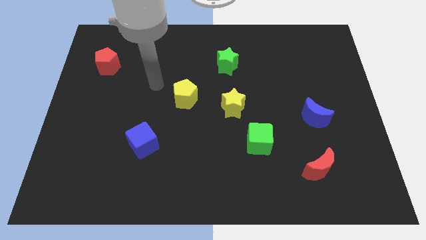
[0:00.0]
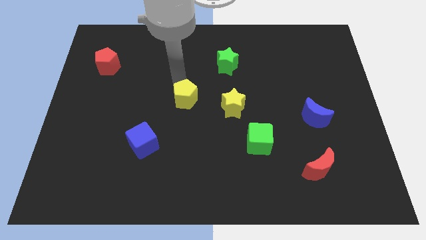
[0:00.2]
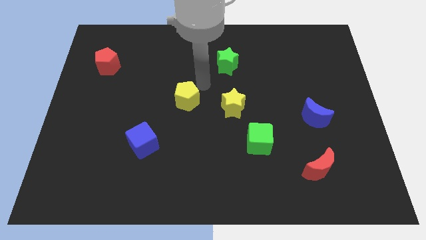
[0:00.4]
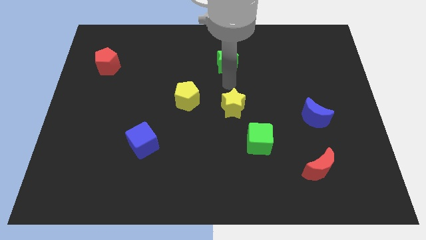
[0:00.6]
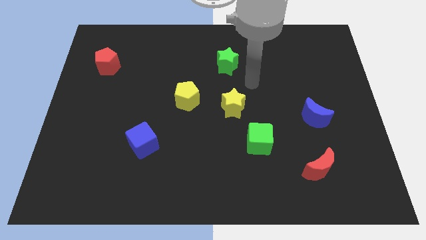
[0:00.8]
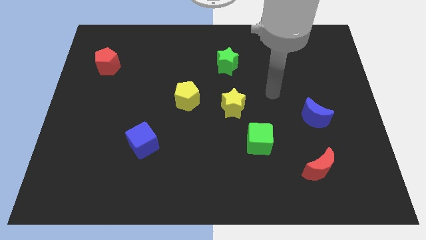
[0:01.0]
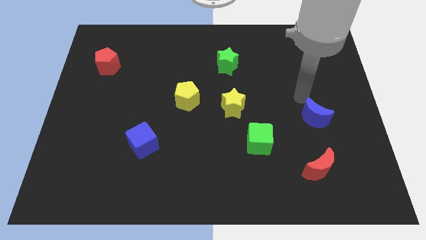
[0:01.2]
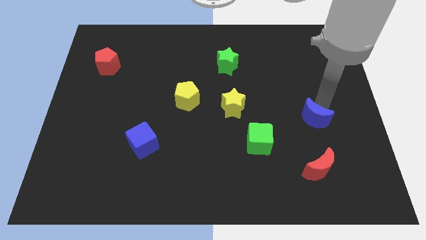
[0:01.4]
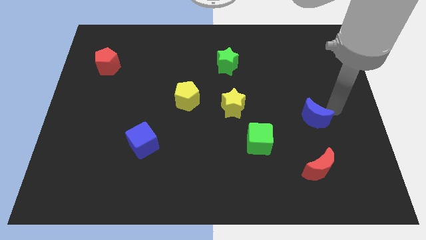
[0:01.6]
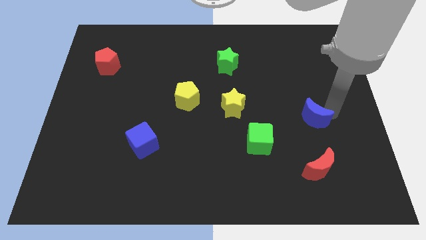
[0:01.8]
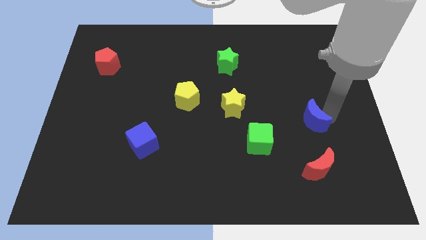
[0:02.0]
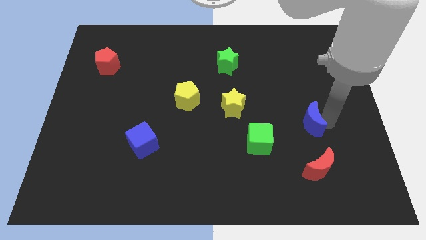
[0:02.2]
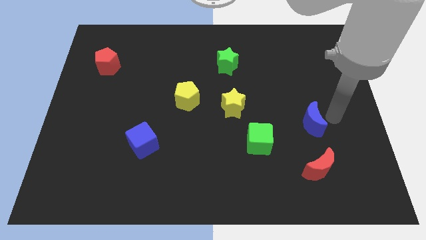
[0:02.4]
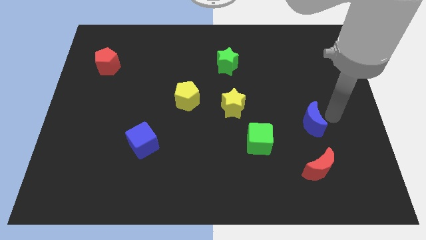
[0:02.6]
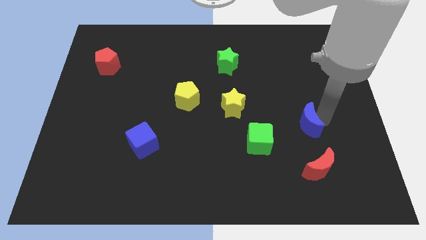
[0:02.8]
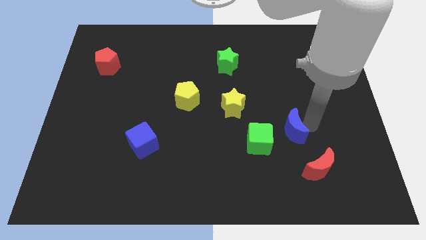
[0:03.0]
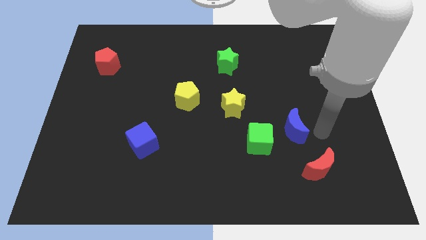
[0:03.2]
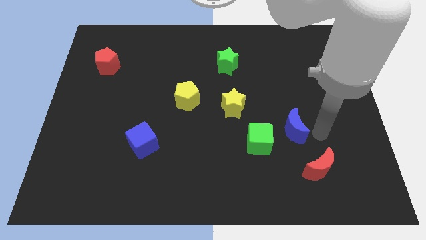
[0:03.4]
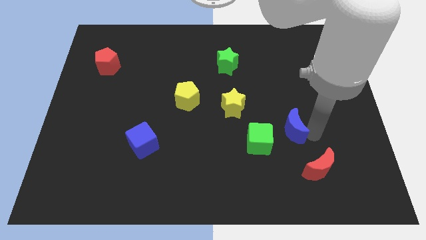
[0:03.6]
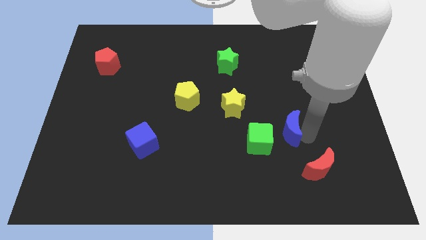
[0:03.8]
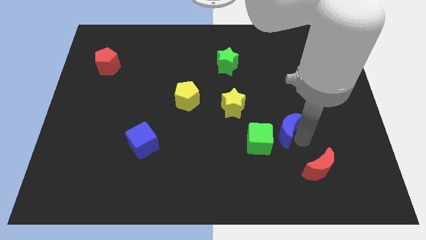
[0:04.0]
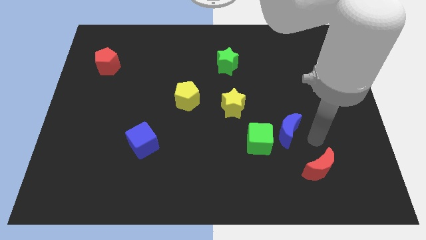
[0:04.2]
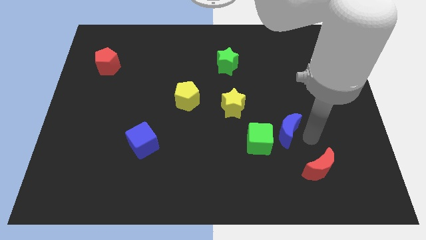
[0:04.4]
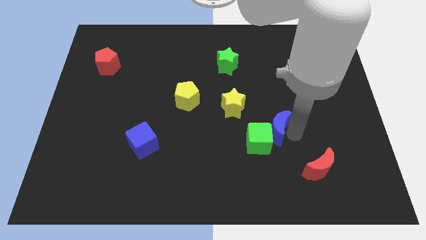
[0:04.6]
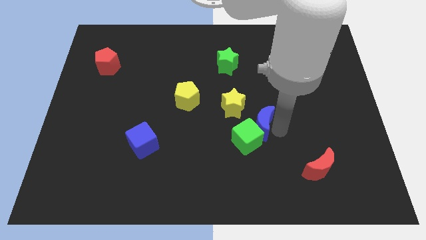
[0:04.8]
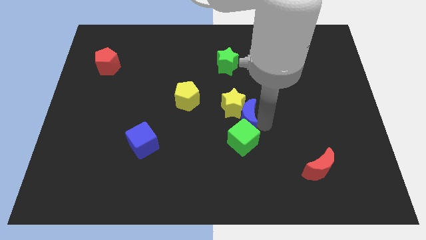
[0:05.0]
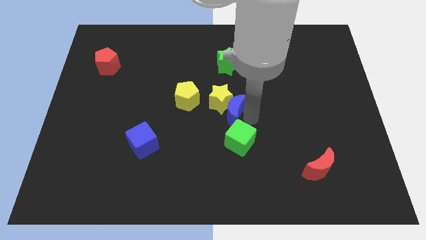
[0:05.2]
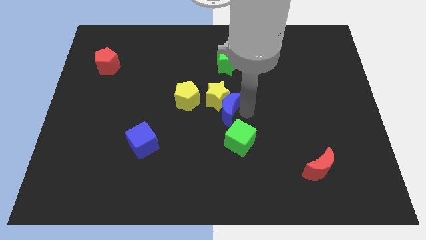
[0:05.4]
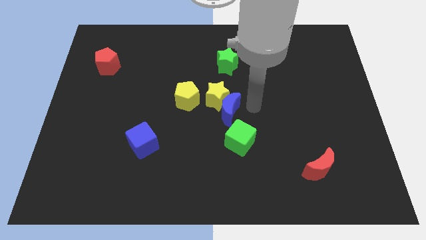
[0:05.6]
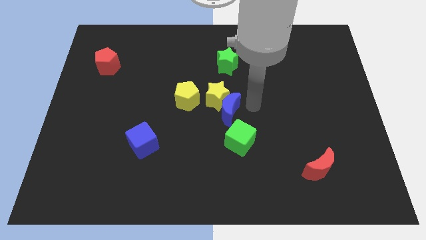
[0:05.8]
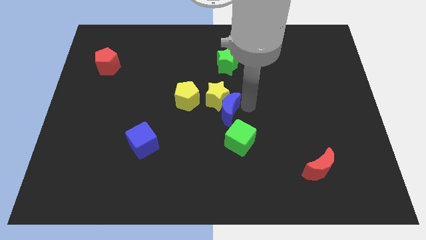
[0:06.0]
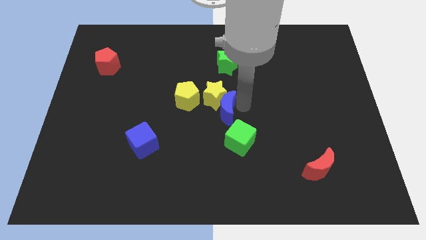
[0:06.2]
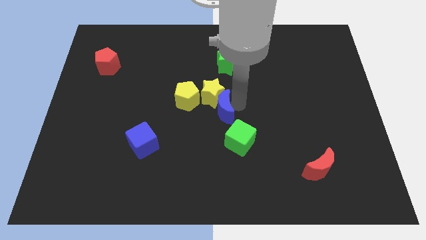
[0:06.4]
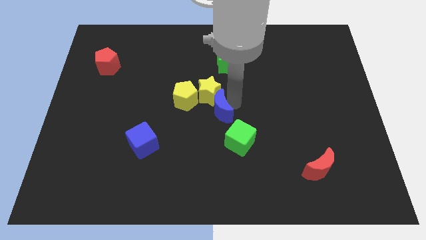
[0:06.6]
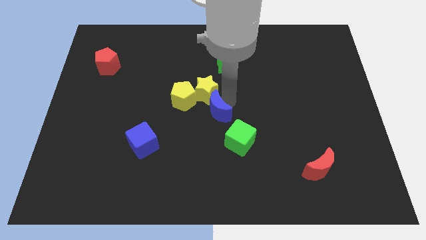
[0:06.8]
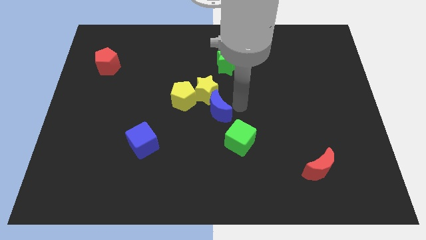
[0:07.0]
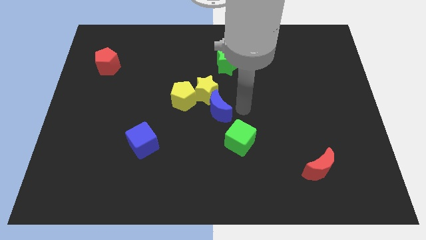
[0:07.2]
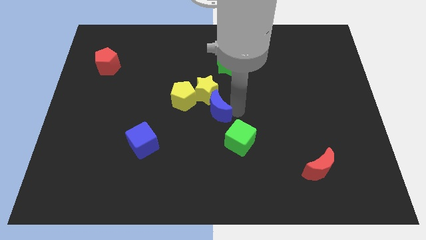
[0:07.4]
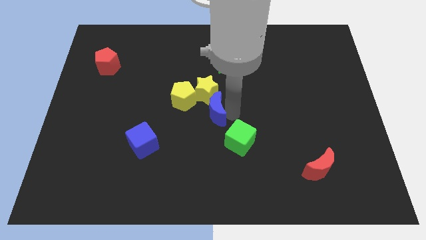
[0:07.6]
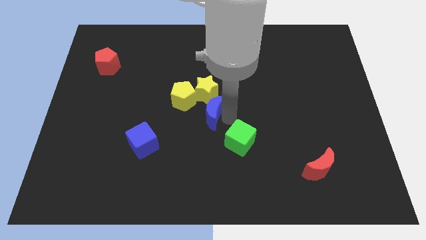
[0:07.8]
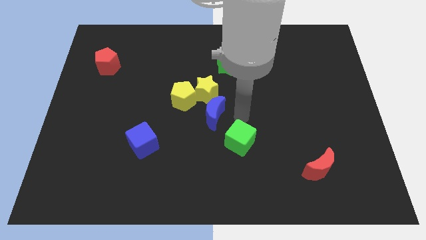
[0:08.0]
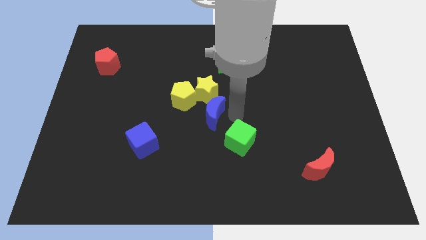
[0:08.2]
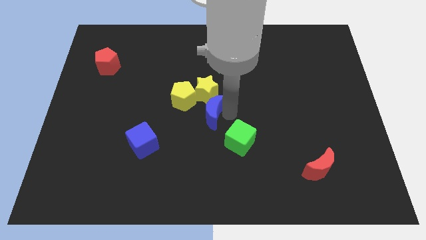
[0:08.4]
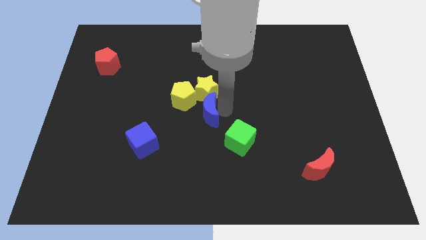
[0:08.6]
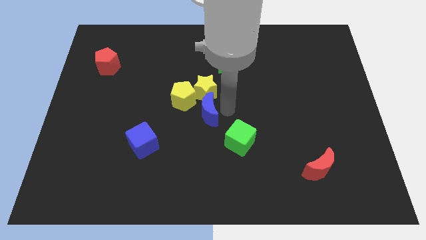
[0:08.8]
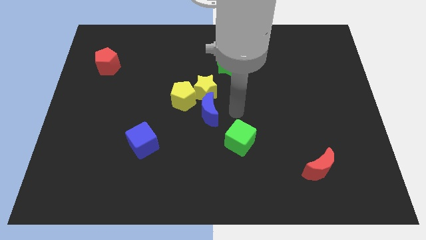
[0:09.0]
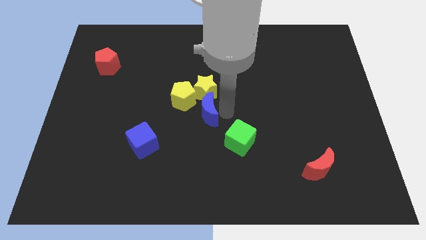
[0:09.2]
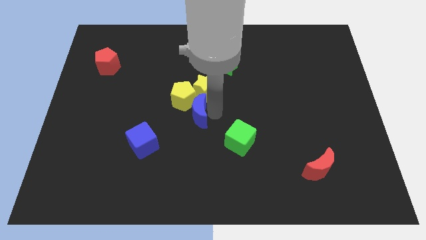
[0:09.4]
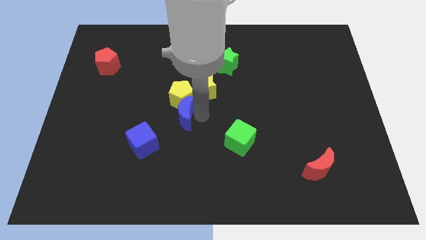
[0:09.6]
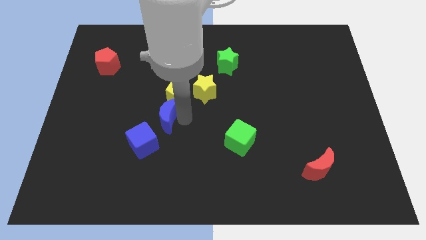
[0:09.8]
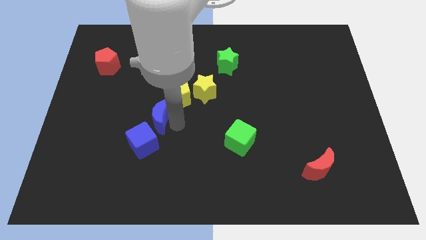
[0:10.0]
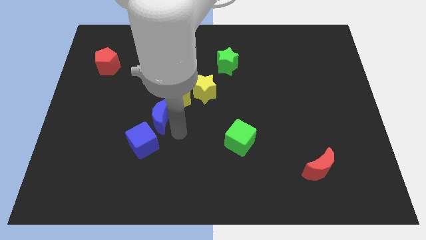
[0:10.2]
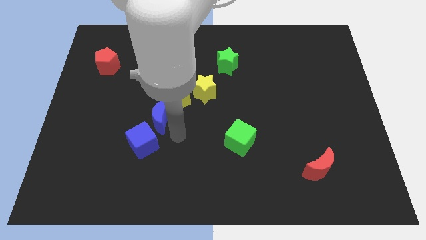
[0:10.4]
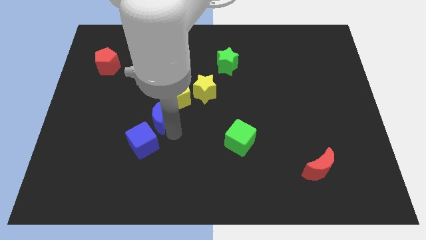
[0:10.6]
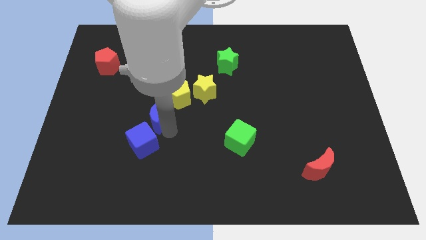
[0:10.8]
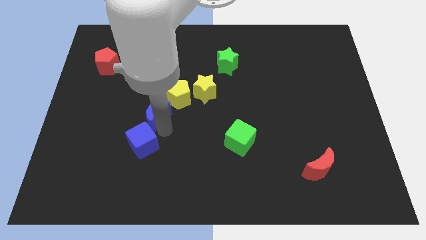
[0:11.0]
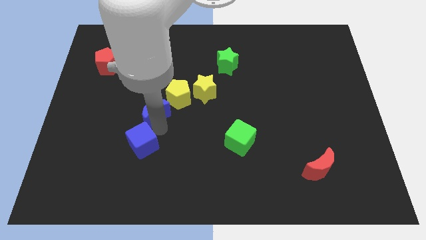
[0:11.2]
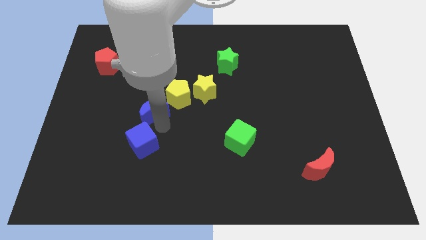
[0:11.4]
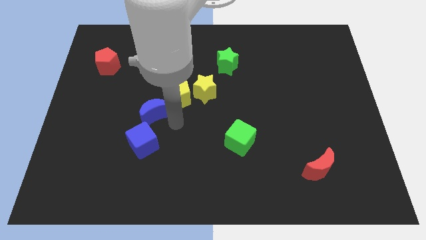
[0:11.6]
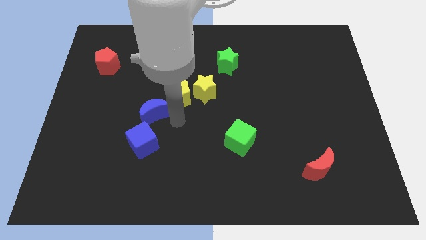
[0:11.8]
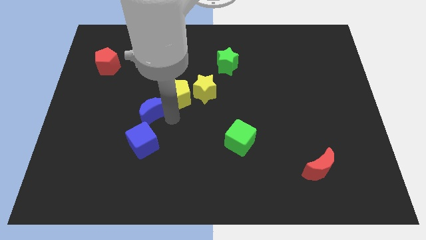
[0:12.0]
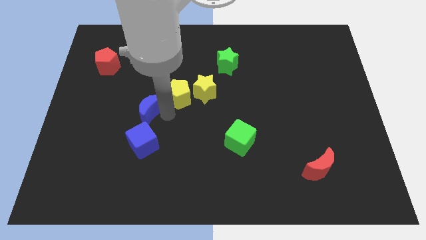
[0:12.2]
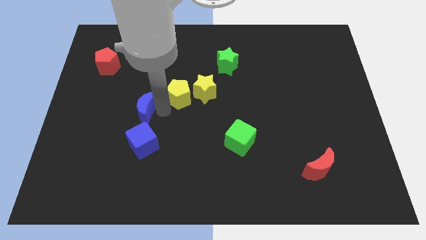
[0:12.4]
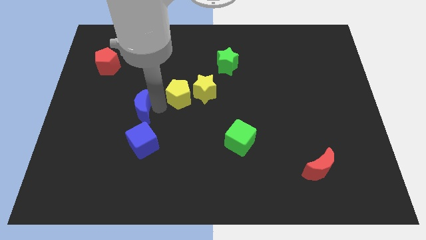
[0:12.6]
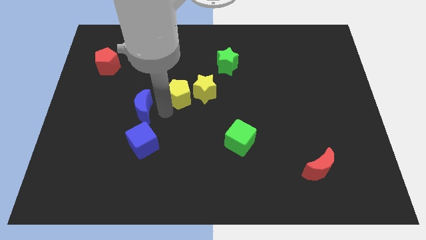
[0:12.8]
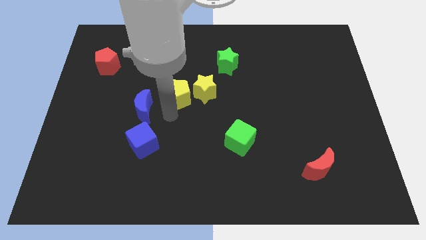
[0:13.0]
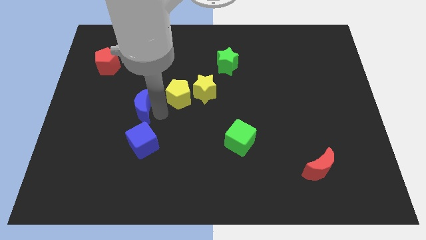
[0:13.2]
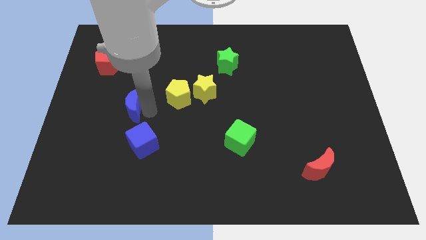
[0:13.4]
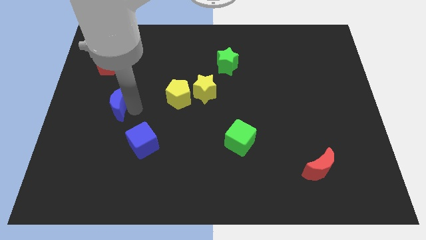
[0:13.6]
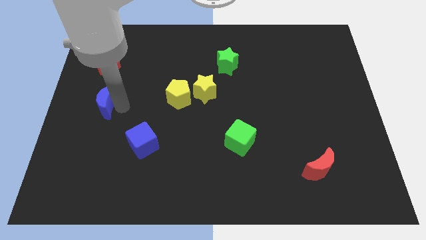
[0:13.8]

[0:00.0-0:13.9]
push the blue moon to the left side of the board
